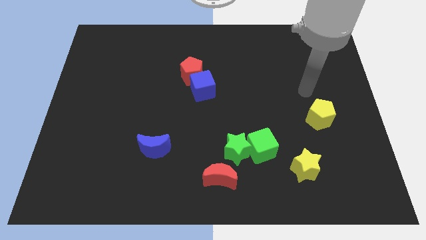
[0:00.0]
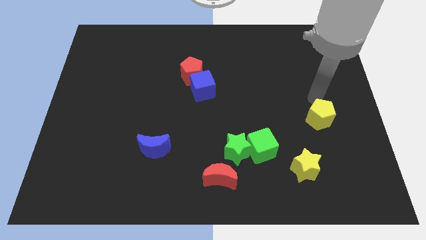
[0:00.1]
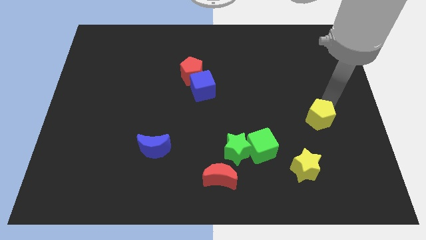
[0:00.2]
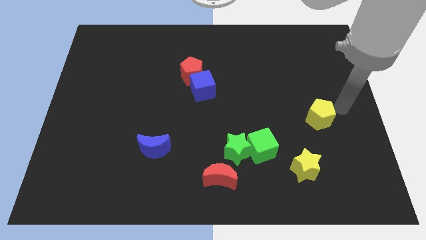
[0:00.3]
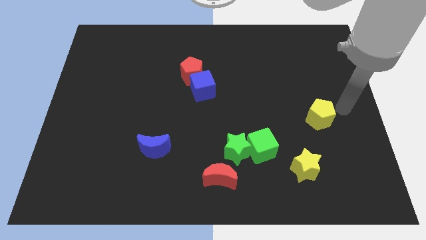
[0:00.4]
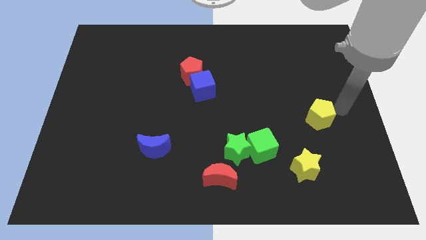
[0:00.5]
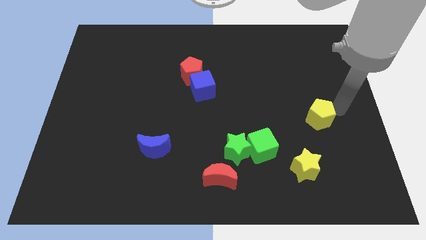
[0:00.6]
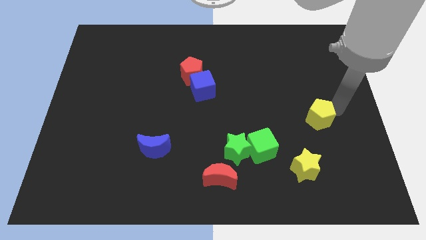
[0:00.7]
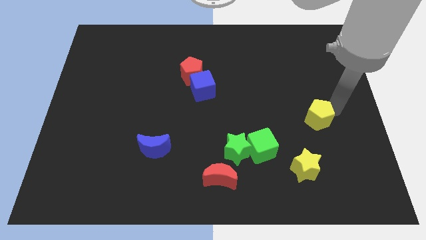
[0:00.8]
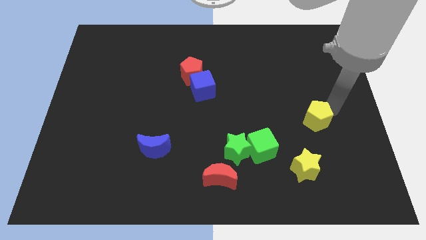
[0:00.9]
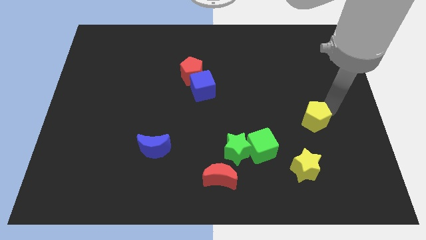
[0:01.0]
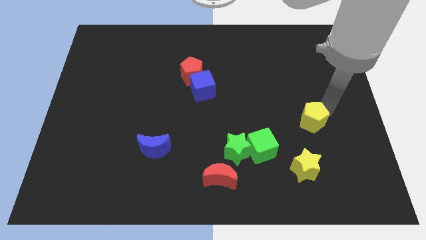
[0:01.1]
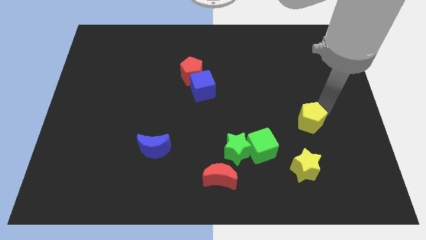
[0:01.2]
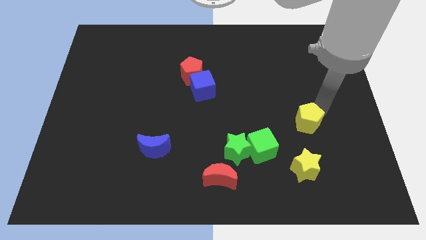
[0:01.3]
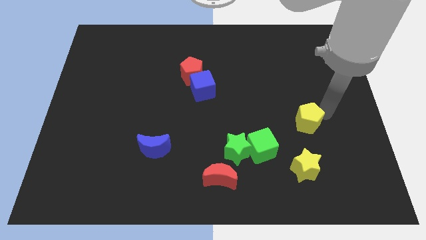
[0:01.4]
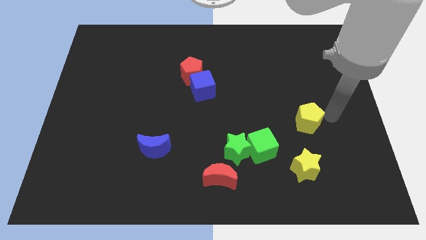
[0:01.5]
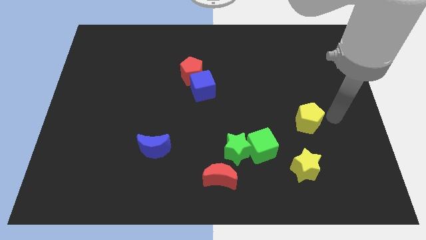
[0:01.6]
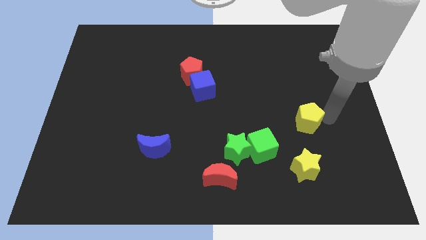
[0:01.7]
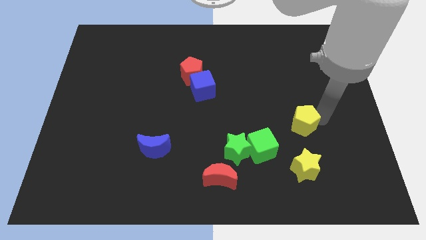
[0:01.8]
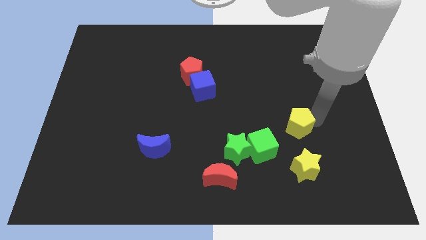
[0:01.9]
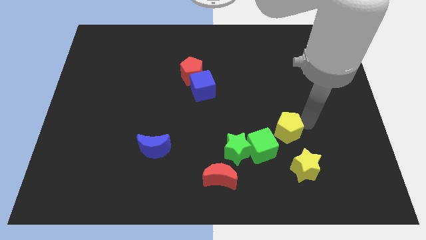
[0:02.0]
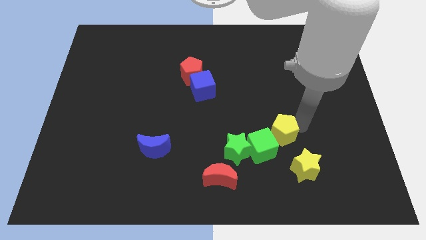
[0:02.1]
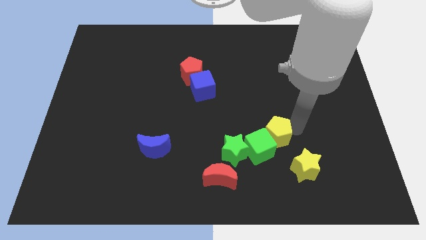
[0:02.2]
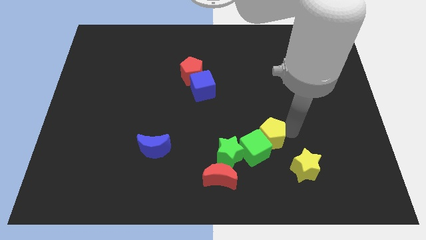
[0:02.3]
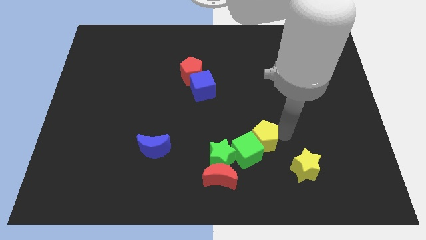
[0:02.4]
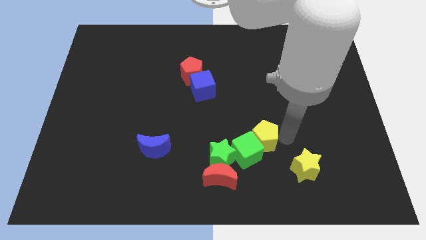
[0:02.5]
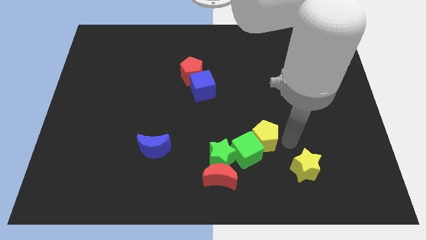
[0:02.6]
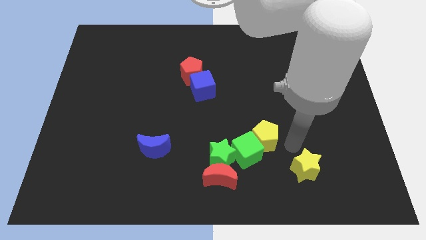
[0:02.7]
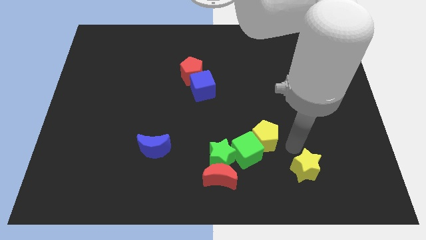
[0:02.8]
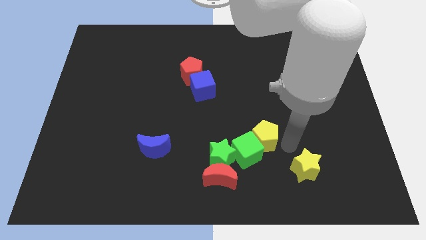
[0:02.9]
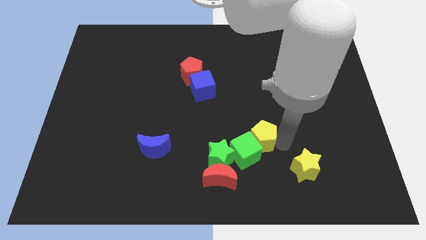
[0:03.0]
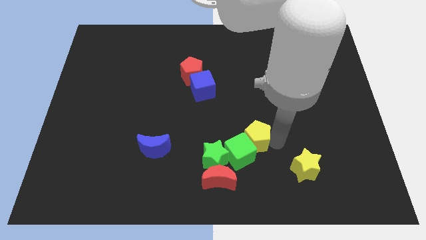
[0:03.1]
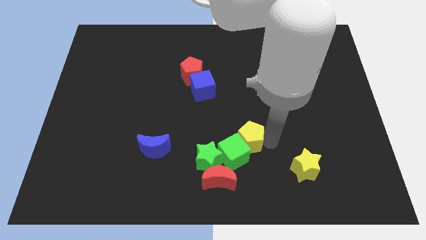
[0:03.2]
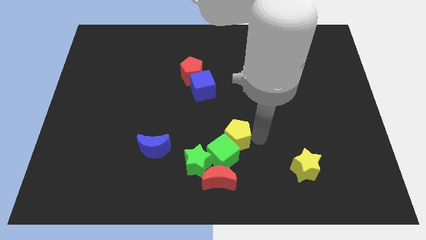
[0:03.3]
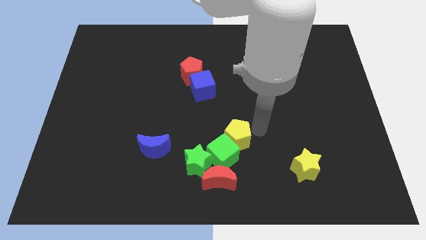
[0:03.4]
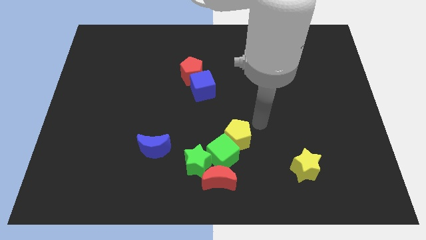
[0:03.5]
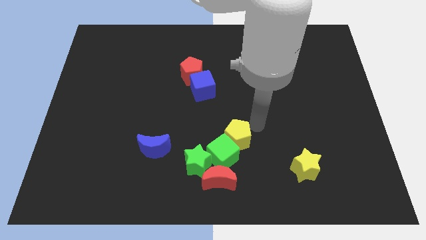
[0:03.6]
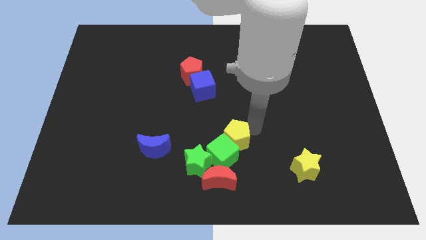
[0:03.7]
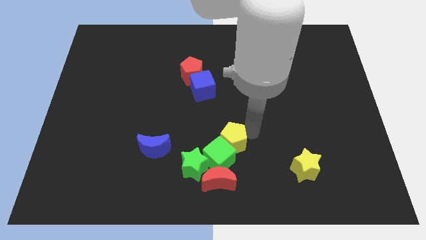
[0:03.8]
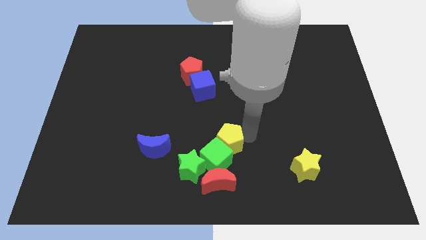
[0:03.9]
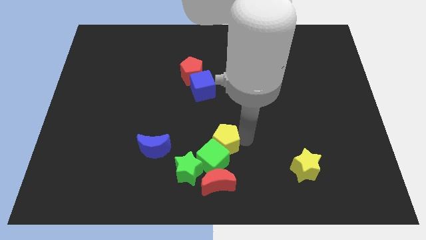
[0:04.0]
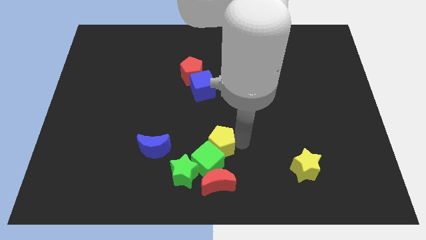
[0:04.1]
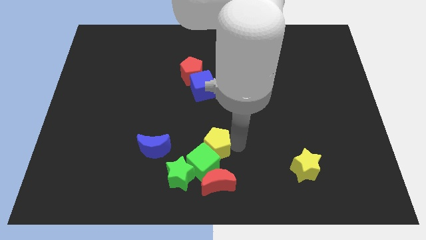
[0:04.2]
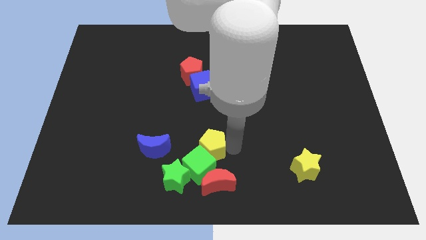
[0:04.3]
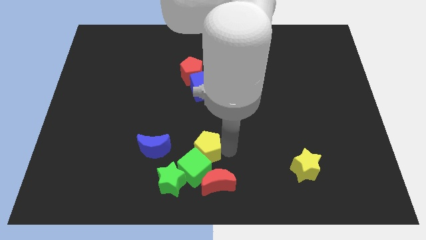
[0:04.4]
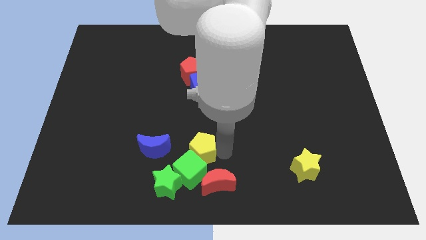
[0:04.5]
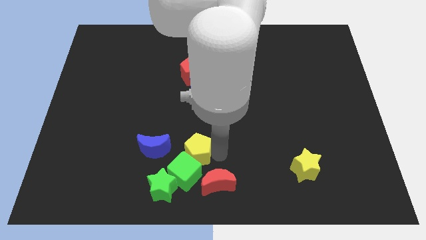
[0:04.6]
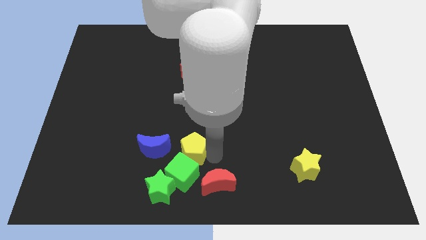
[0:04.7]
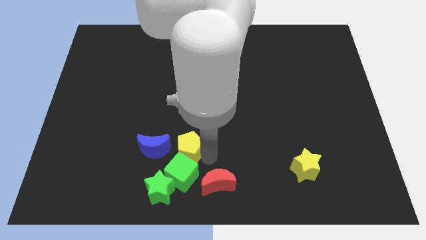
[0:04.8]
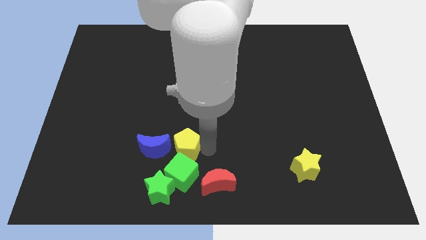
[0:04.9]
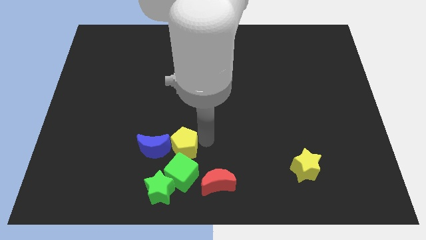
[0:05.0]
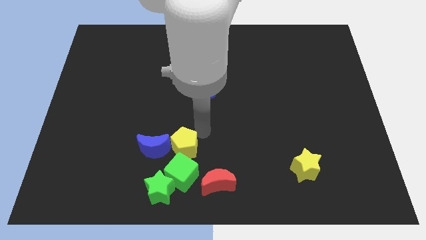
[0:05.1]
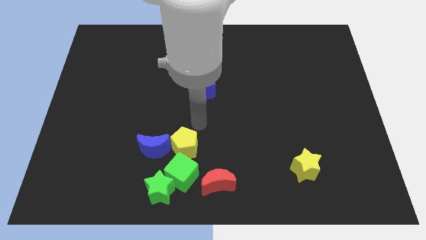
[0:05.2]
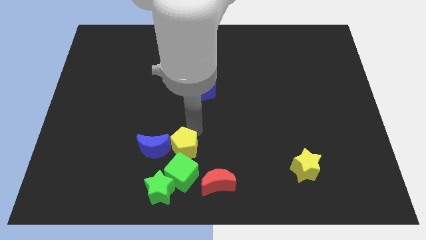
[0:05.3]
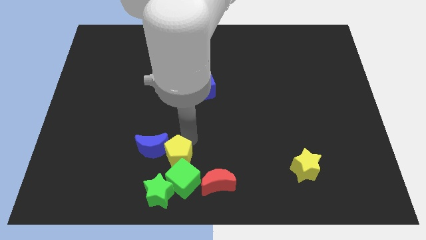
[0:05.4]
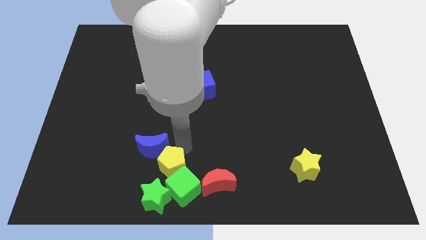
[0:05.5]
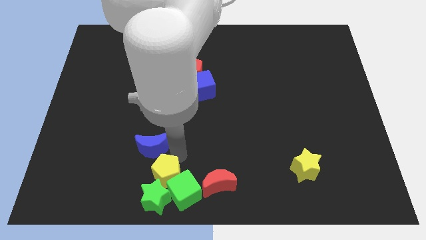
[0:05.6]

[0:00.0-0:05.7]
move the yellow pentagon next to the green star

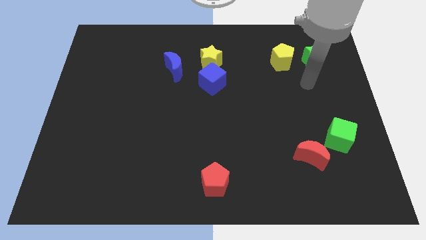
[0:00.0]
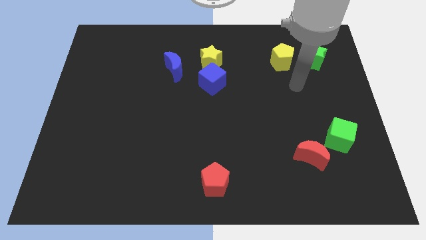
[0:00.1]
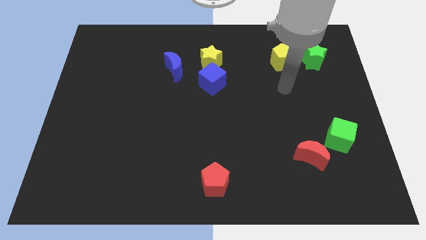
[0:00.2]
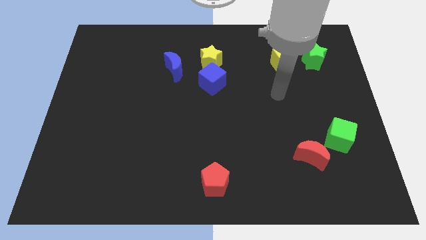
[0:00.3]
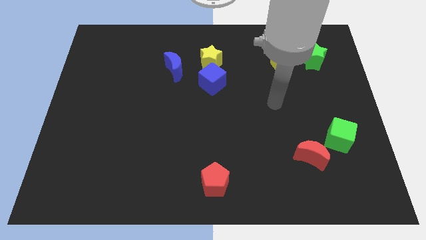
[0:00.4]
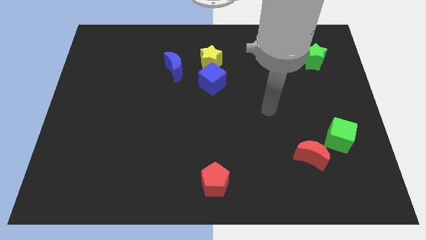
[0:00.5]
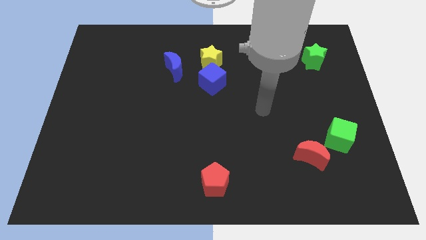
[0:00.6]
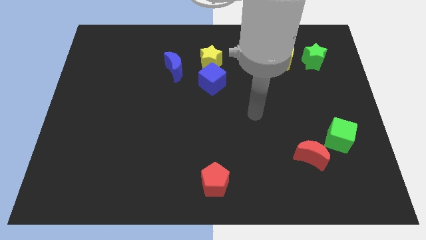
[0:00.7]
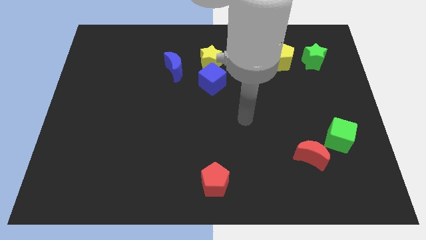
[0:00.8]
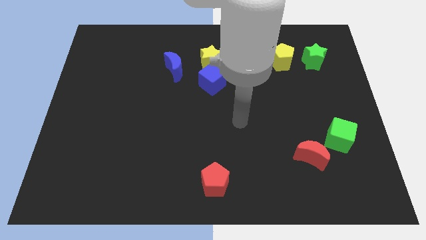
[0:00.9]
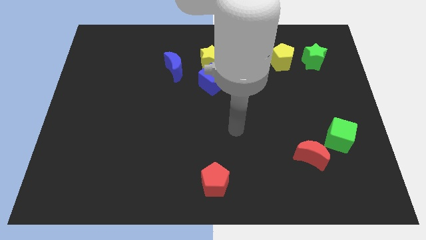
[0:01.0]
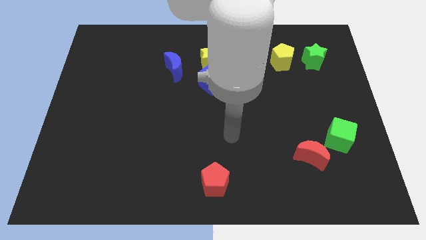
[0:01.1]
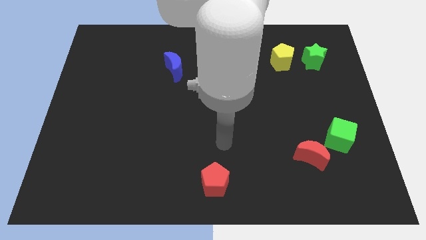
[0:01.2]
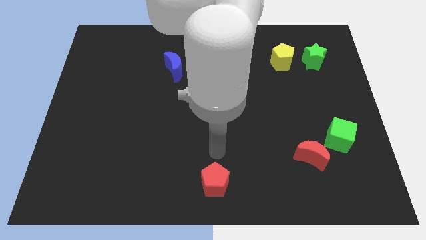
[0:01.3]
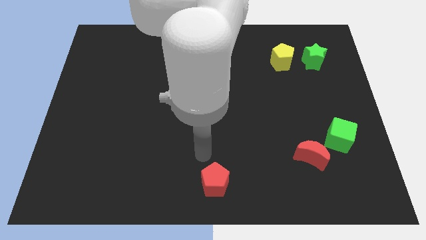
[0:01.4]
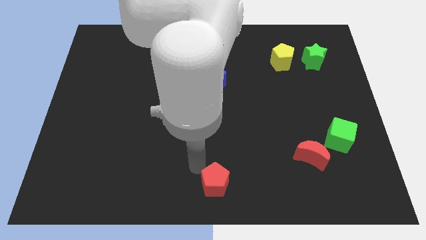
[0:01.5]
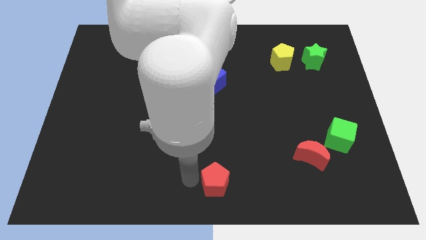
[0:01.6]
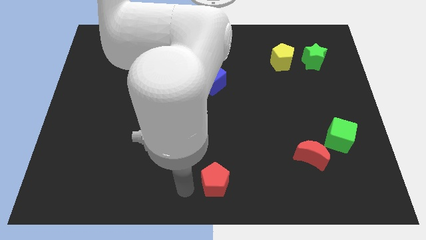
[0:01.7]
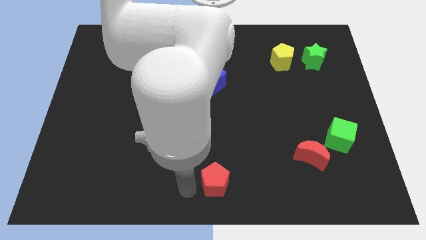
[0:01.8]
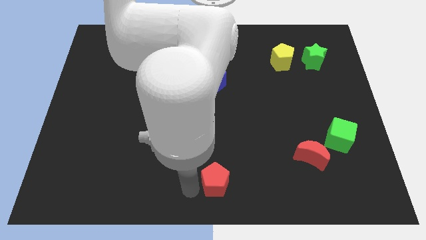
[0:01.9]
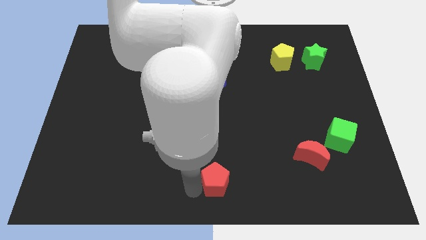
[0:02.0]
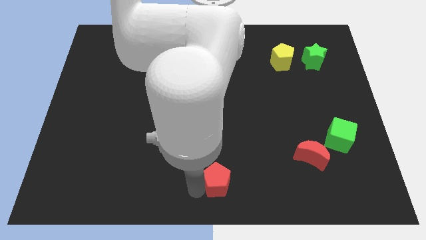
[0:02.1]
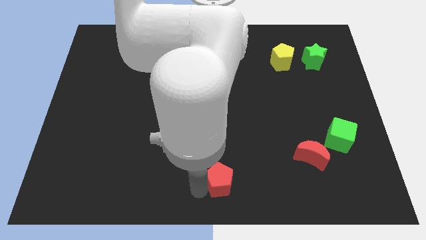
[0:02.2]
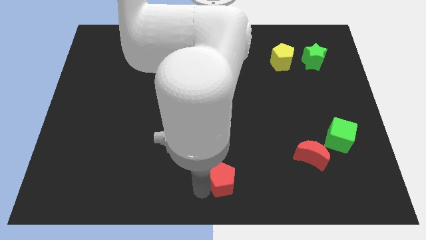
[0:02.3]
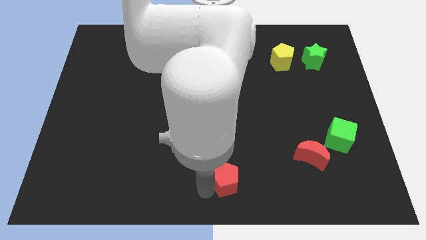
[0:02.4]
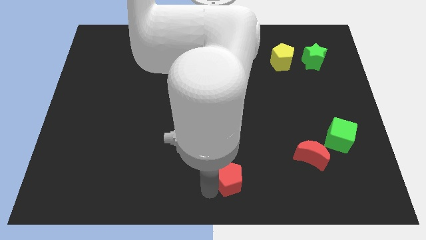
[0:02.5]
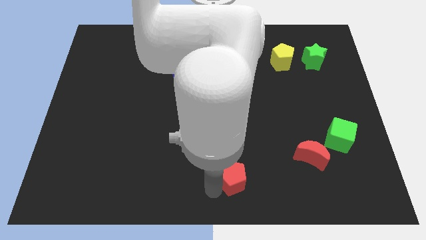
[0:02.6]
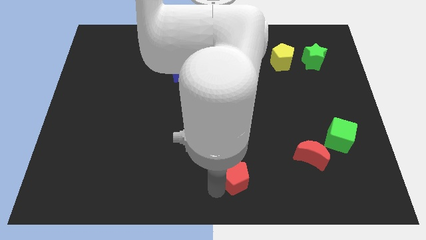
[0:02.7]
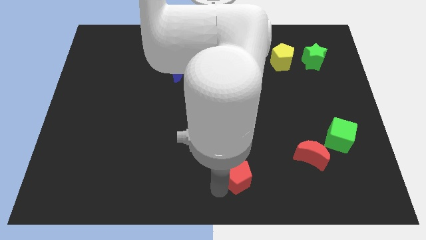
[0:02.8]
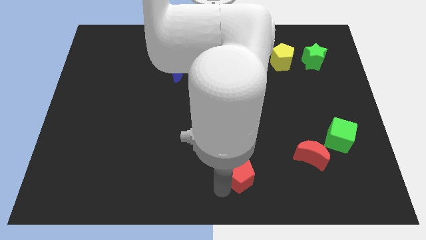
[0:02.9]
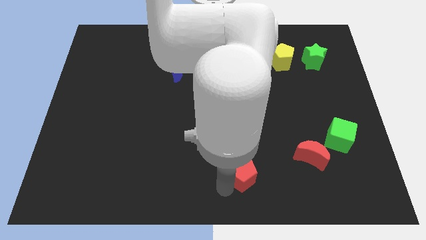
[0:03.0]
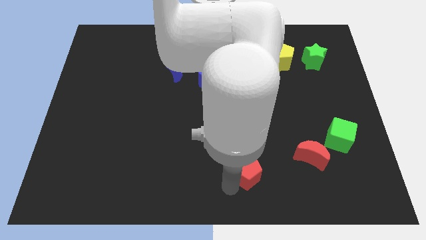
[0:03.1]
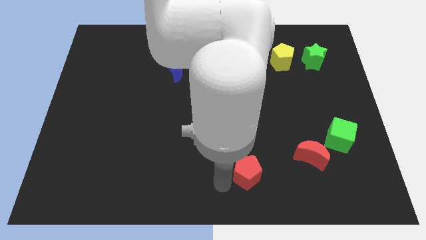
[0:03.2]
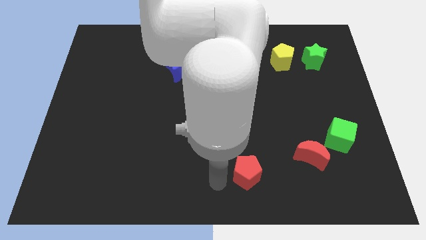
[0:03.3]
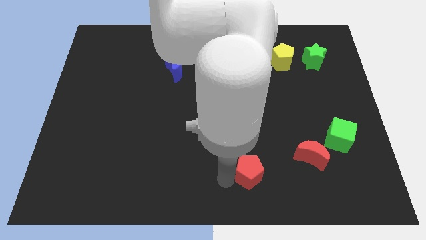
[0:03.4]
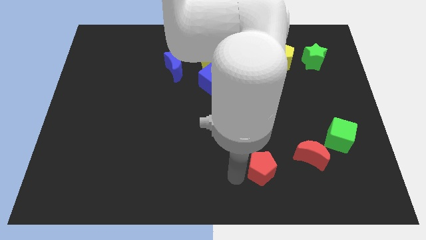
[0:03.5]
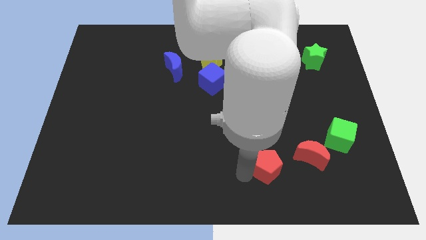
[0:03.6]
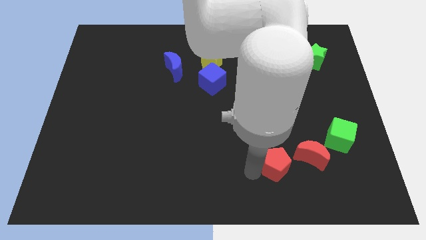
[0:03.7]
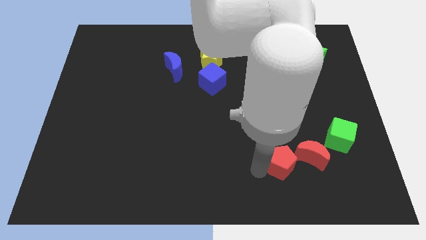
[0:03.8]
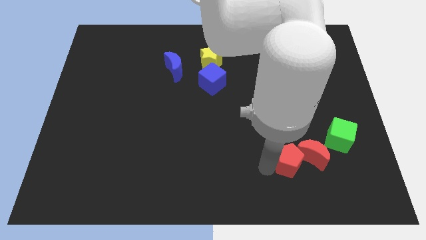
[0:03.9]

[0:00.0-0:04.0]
push the red pentagon to the red moon
